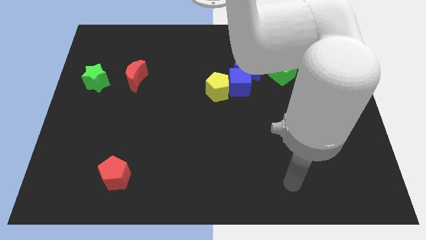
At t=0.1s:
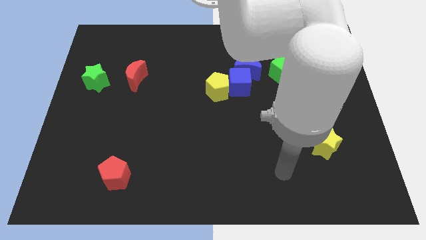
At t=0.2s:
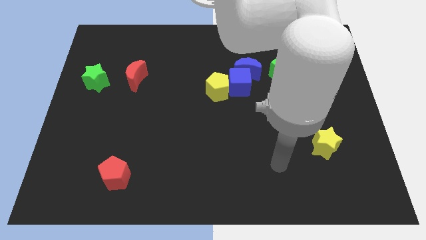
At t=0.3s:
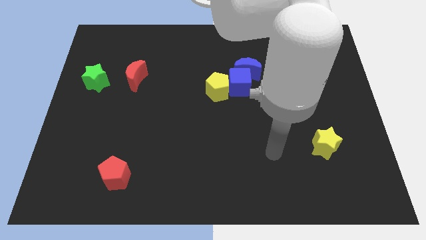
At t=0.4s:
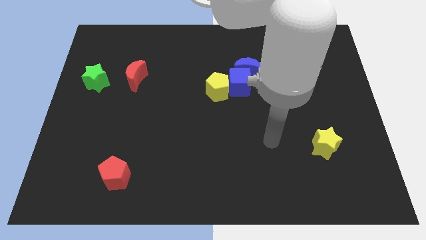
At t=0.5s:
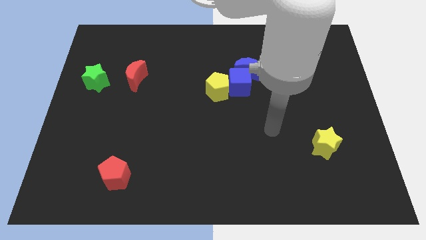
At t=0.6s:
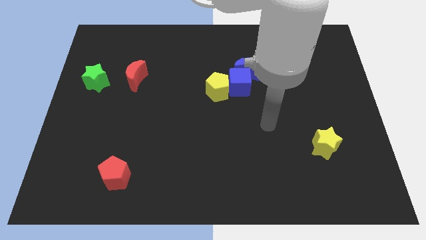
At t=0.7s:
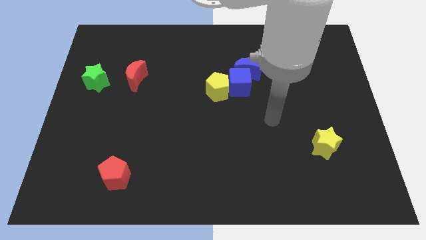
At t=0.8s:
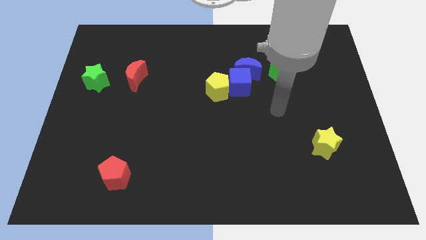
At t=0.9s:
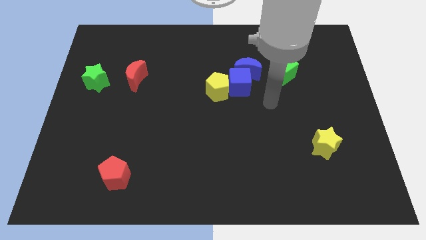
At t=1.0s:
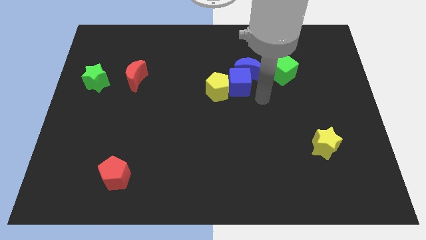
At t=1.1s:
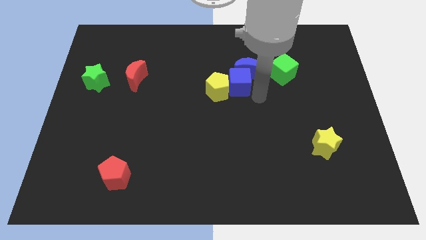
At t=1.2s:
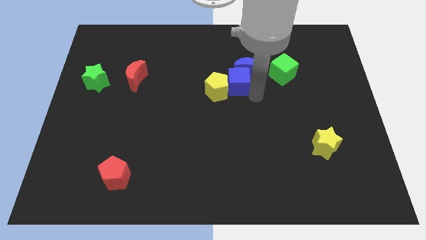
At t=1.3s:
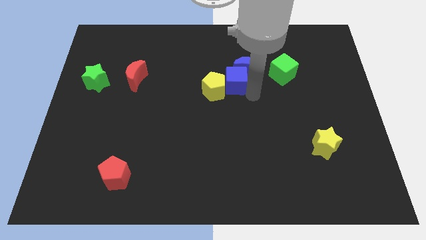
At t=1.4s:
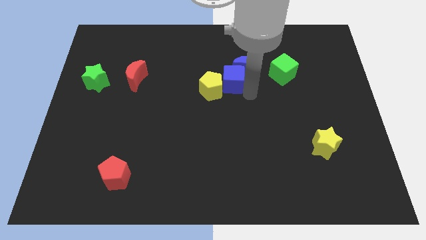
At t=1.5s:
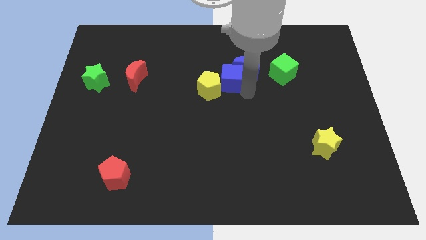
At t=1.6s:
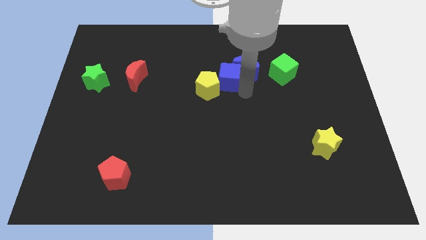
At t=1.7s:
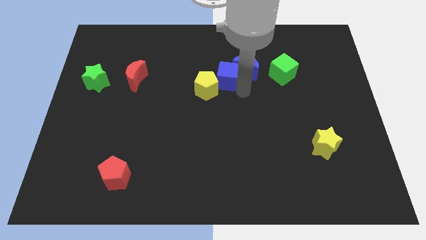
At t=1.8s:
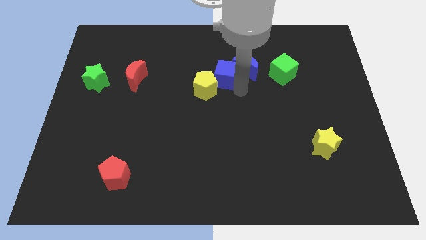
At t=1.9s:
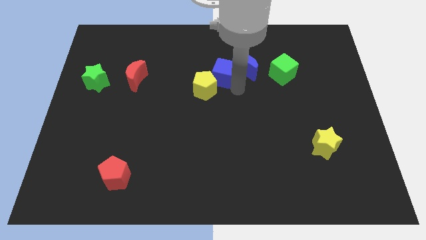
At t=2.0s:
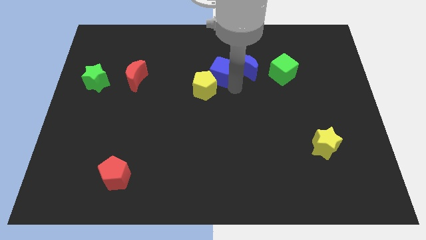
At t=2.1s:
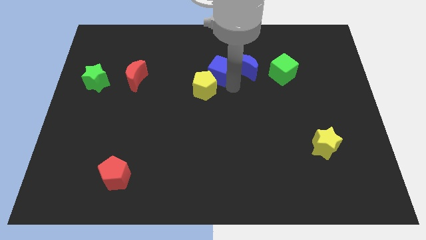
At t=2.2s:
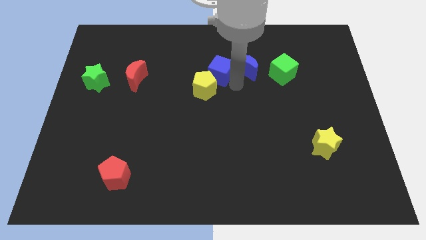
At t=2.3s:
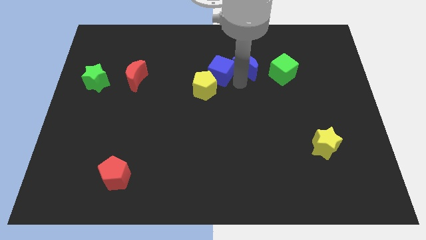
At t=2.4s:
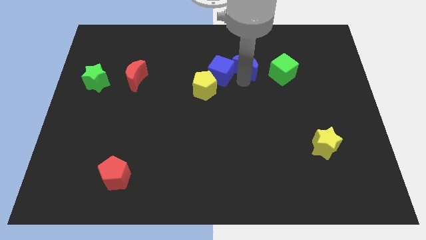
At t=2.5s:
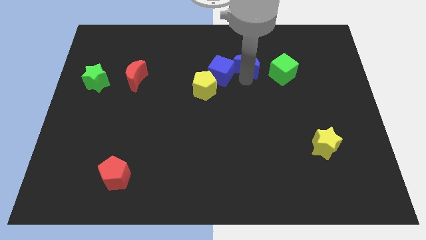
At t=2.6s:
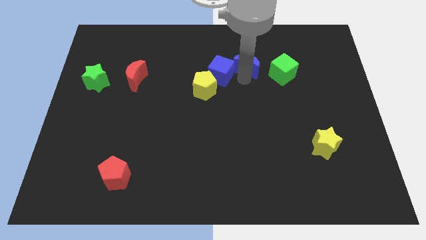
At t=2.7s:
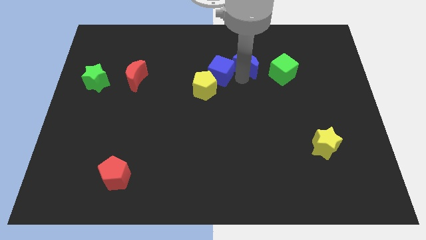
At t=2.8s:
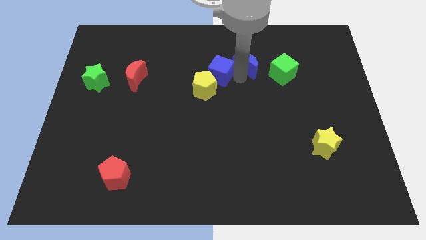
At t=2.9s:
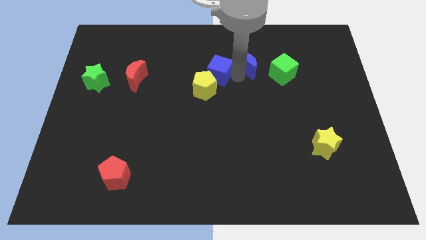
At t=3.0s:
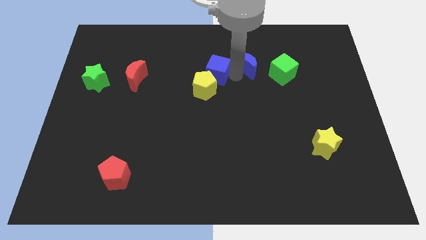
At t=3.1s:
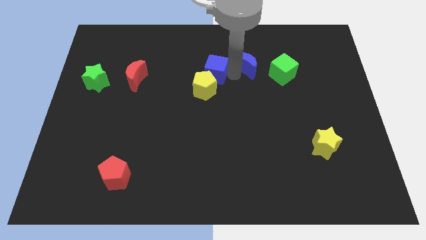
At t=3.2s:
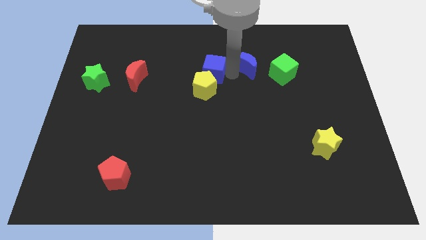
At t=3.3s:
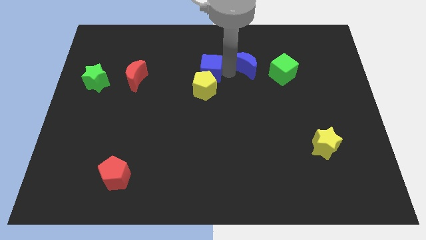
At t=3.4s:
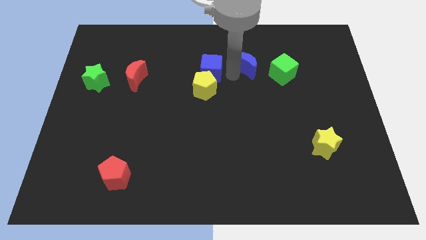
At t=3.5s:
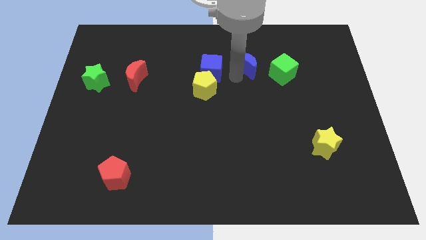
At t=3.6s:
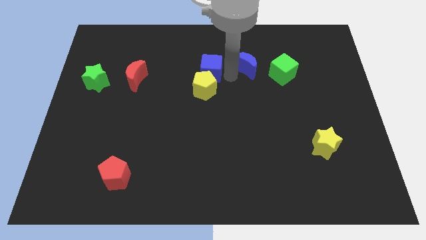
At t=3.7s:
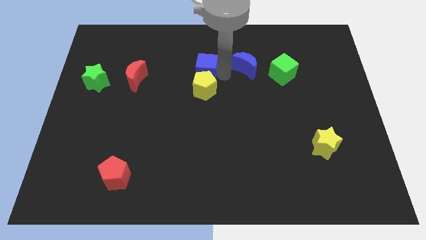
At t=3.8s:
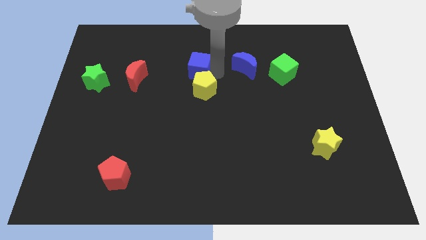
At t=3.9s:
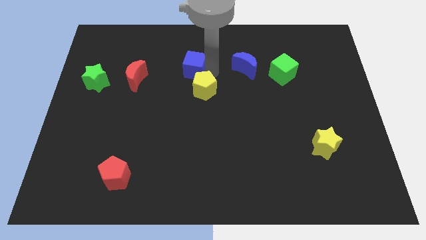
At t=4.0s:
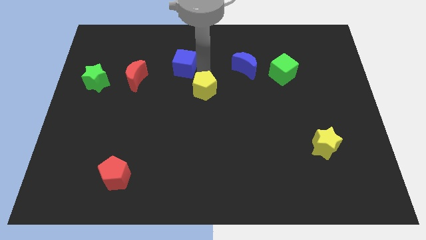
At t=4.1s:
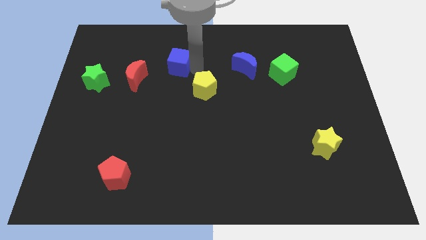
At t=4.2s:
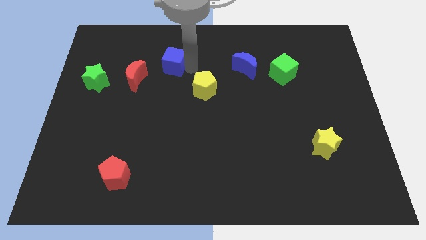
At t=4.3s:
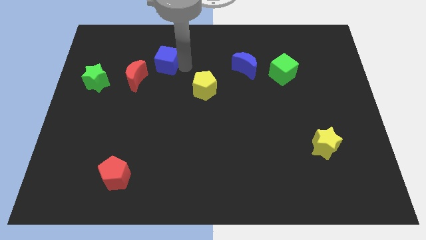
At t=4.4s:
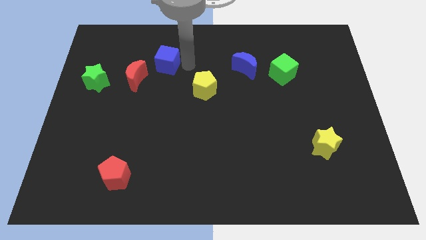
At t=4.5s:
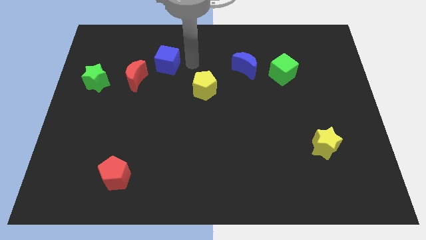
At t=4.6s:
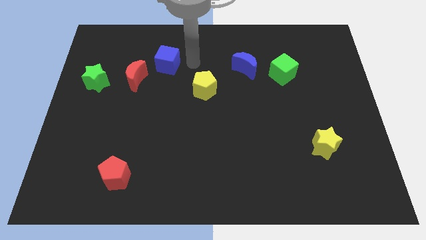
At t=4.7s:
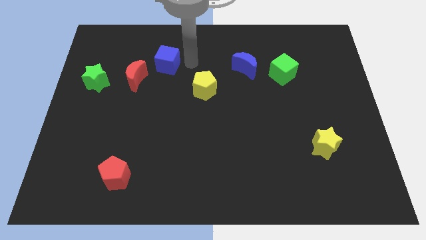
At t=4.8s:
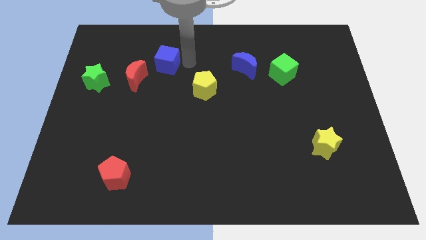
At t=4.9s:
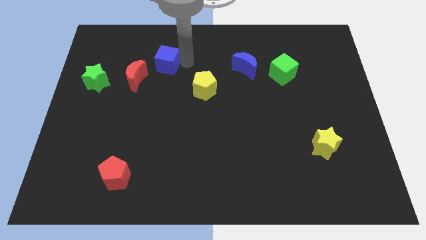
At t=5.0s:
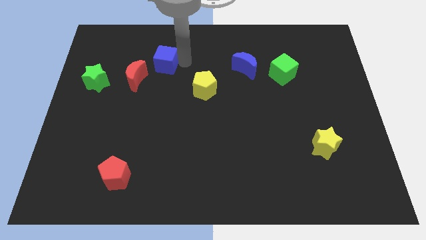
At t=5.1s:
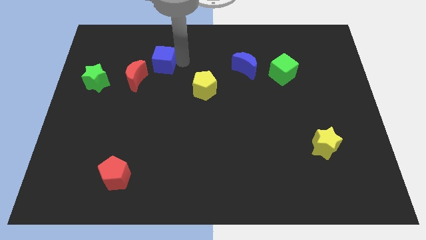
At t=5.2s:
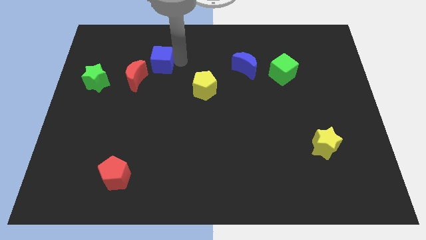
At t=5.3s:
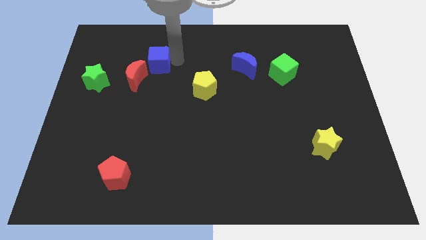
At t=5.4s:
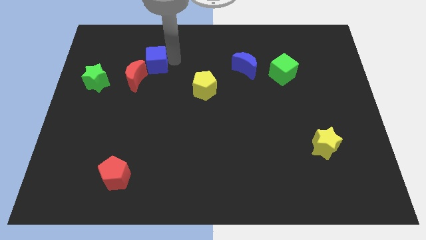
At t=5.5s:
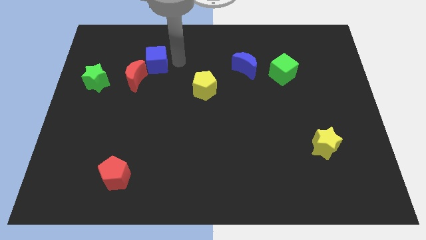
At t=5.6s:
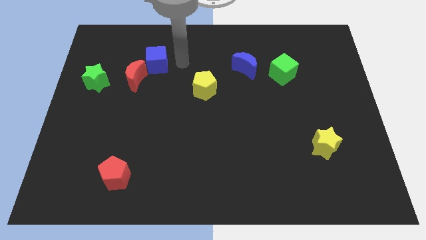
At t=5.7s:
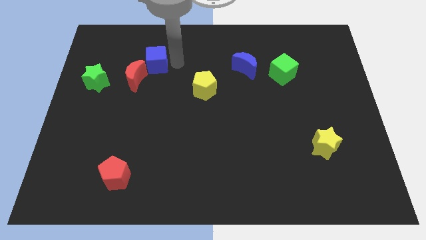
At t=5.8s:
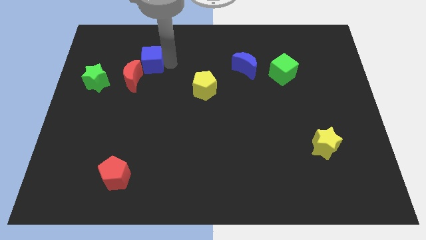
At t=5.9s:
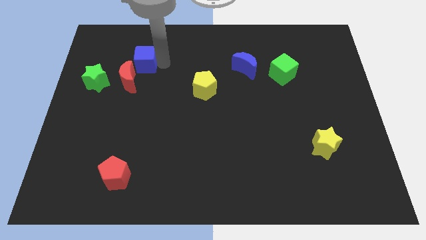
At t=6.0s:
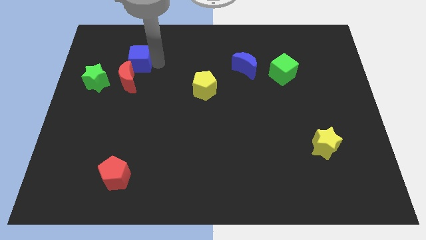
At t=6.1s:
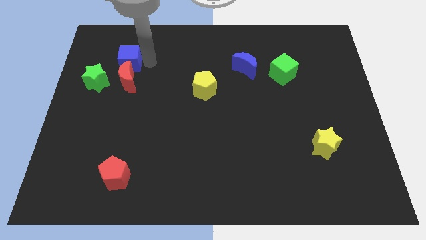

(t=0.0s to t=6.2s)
push the blue cube diagonally up and to the left of the red moon

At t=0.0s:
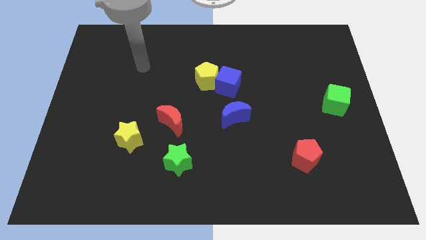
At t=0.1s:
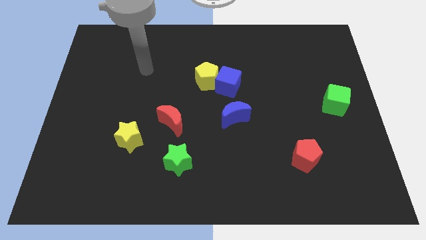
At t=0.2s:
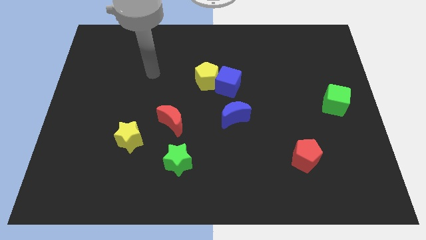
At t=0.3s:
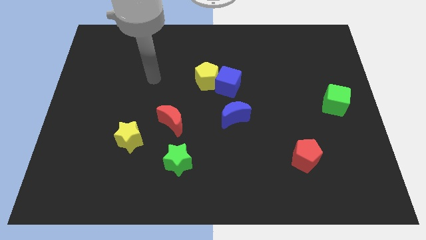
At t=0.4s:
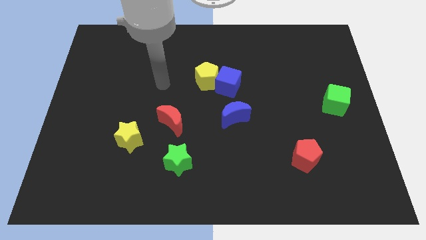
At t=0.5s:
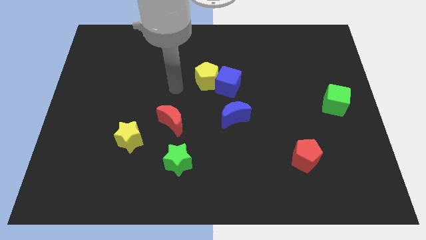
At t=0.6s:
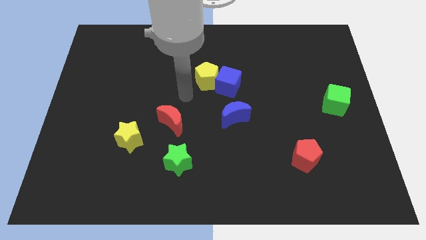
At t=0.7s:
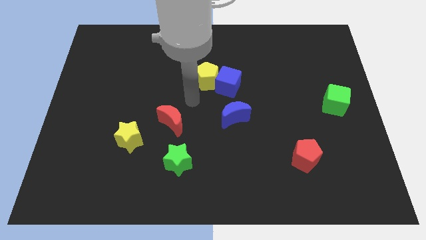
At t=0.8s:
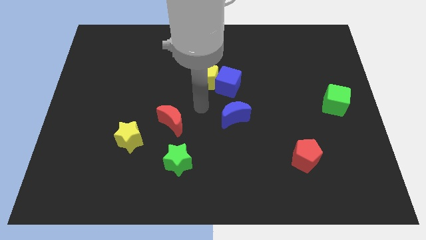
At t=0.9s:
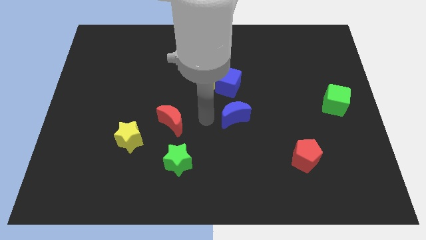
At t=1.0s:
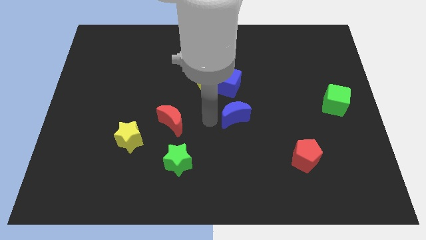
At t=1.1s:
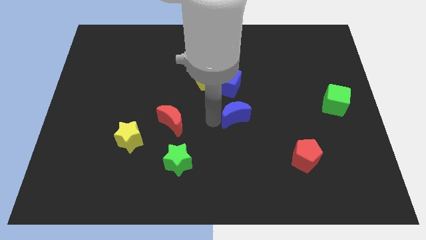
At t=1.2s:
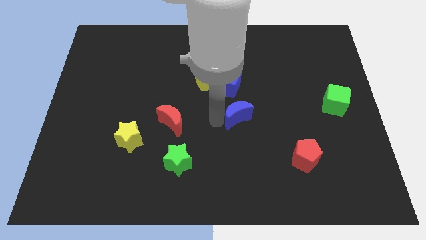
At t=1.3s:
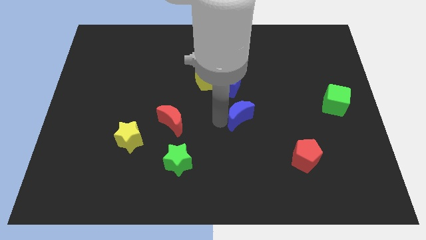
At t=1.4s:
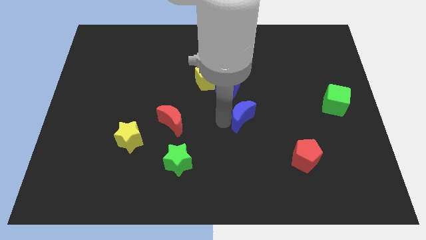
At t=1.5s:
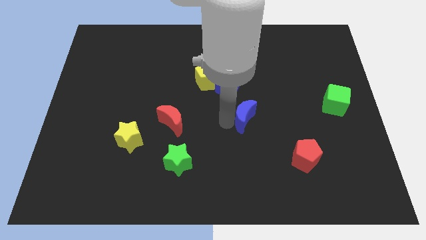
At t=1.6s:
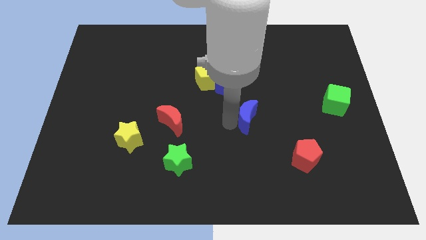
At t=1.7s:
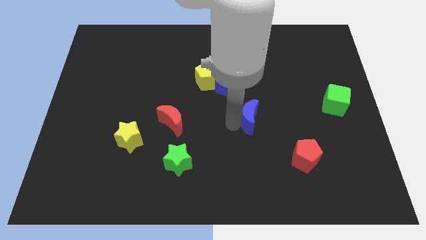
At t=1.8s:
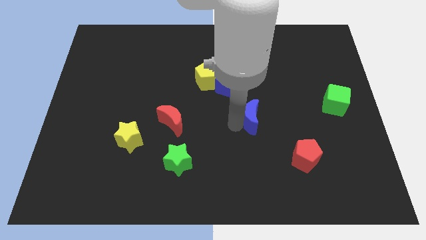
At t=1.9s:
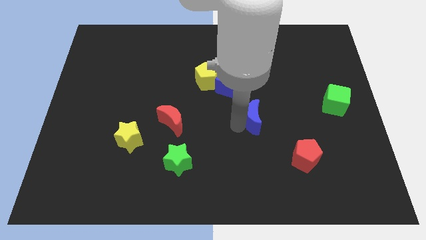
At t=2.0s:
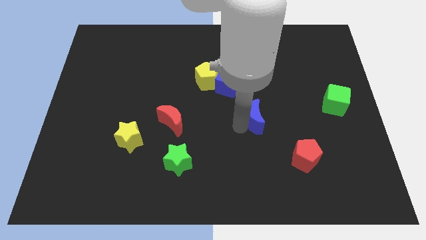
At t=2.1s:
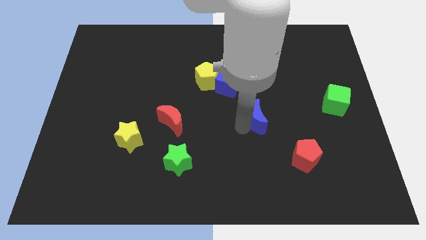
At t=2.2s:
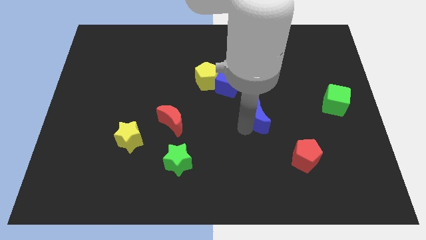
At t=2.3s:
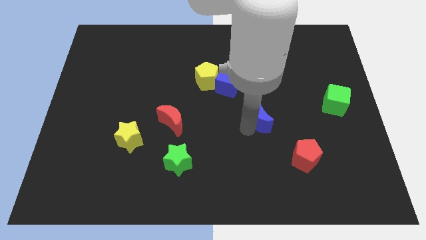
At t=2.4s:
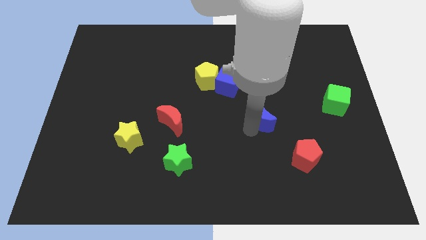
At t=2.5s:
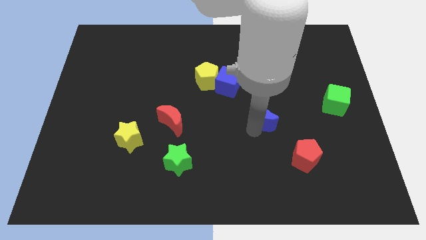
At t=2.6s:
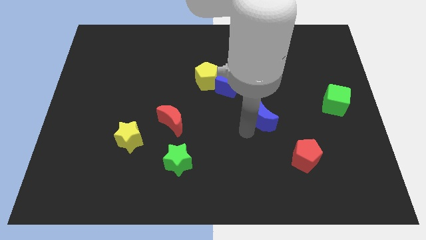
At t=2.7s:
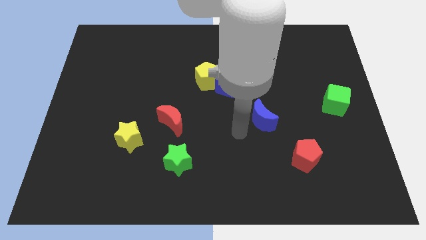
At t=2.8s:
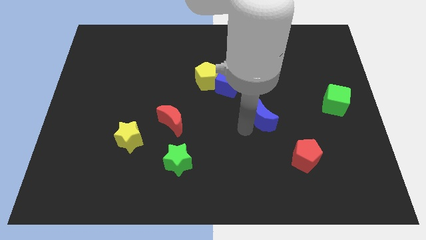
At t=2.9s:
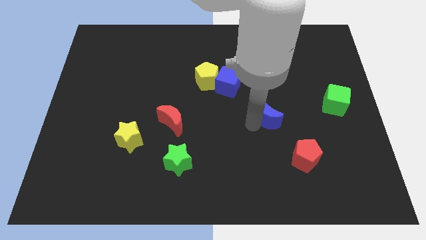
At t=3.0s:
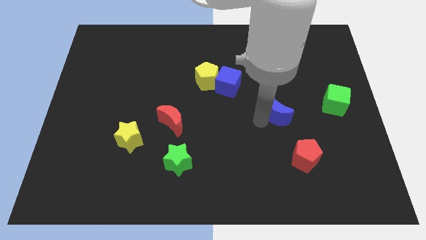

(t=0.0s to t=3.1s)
move the blue moon to the left of the green cube
